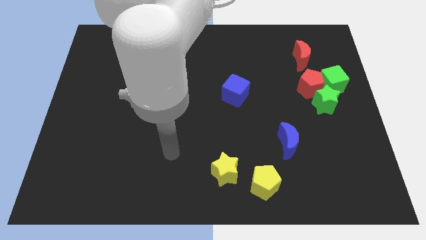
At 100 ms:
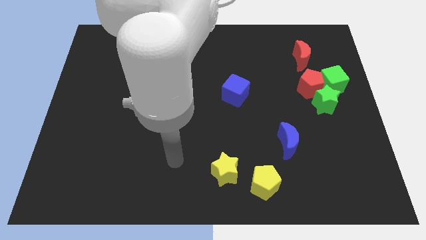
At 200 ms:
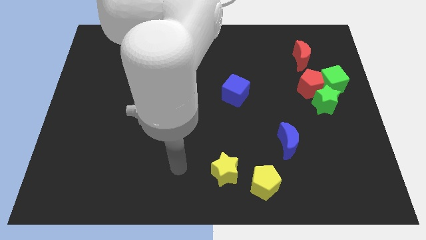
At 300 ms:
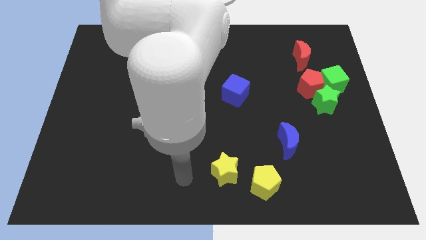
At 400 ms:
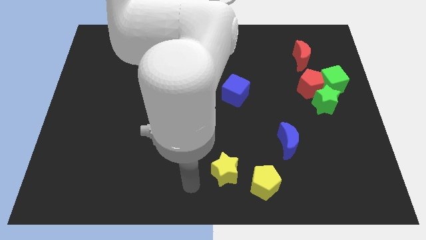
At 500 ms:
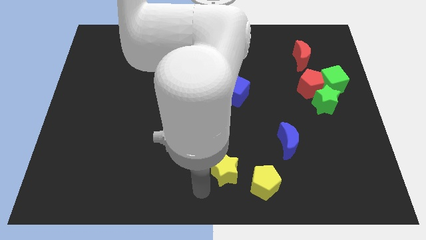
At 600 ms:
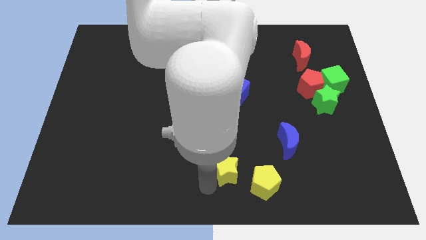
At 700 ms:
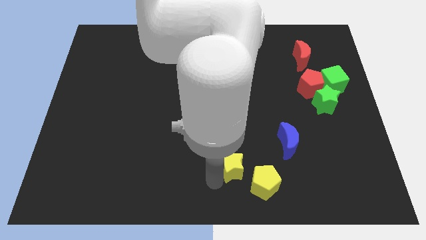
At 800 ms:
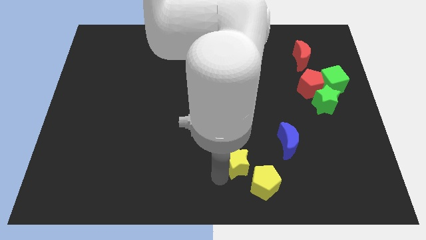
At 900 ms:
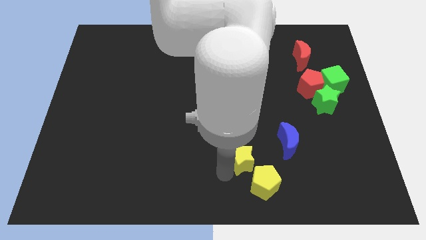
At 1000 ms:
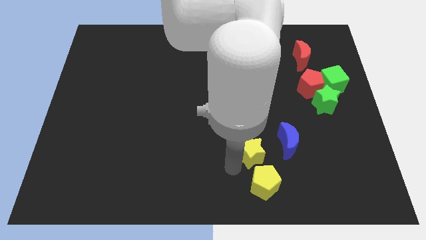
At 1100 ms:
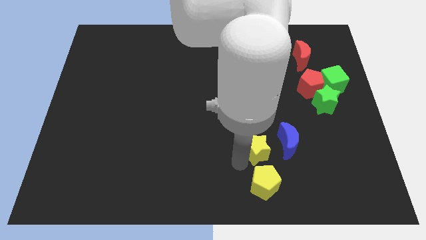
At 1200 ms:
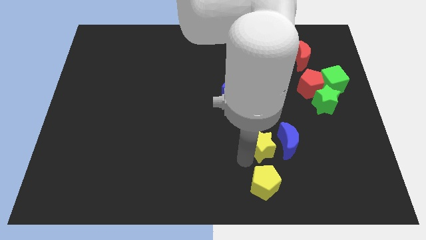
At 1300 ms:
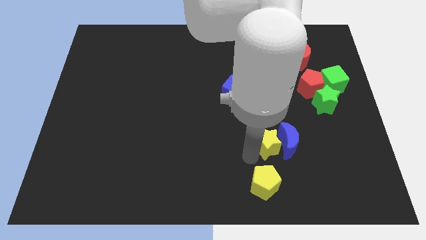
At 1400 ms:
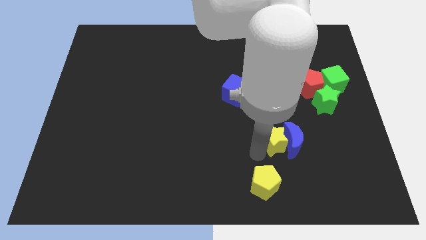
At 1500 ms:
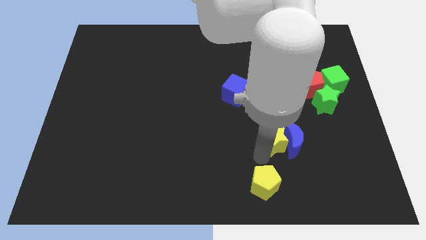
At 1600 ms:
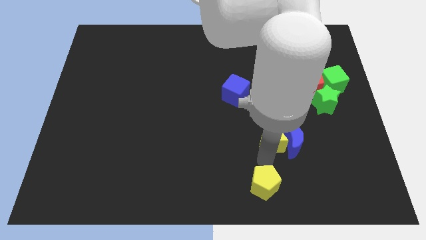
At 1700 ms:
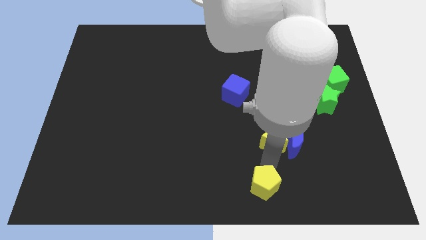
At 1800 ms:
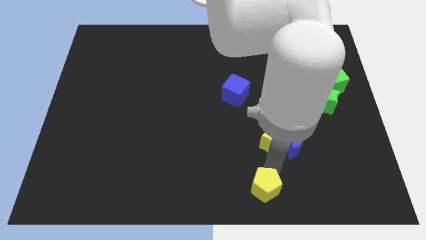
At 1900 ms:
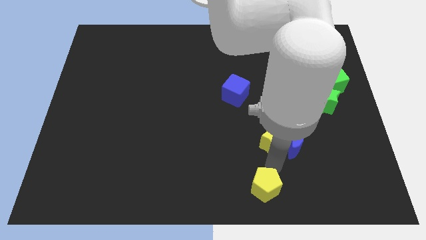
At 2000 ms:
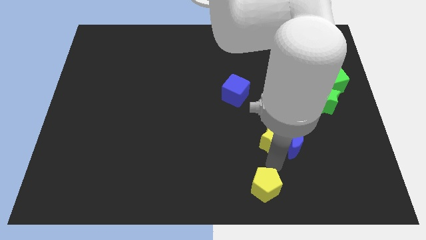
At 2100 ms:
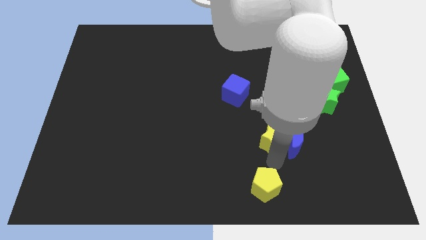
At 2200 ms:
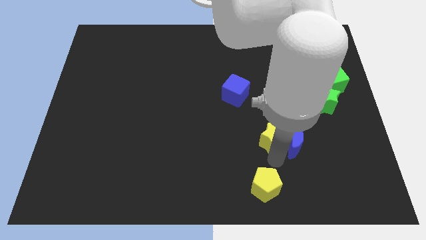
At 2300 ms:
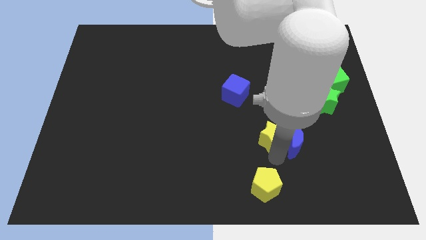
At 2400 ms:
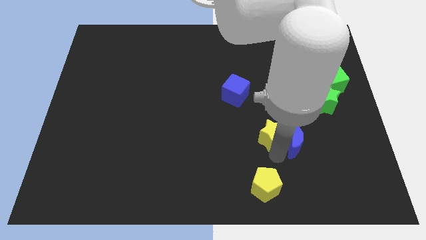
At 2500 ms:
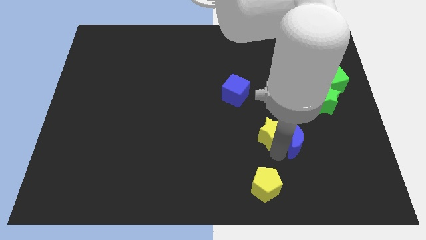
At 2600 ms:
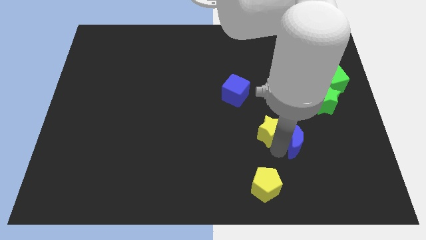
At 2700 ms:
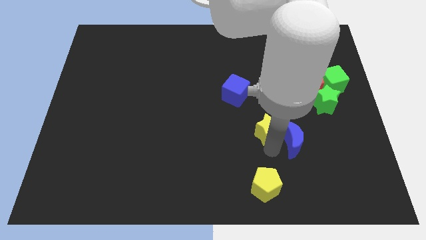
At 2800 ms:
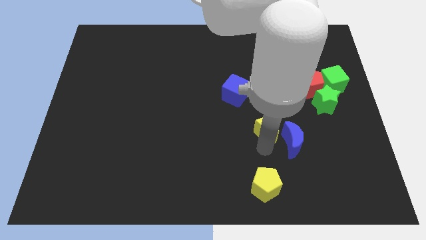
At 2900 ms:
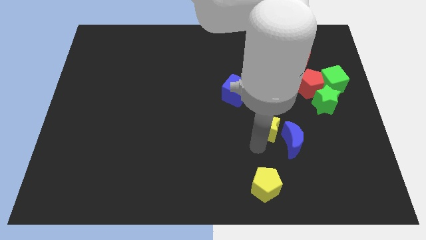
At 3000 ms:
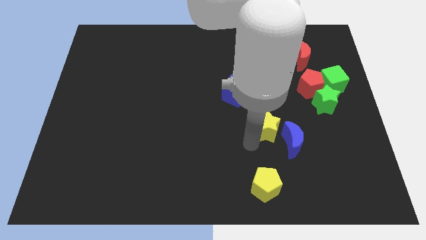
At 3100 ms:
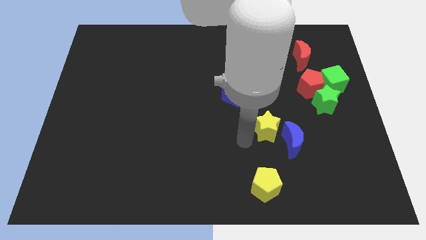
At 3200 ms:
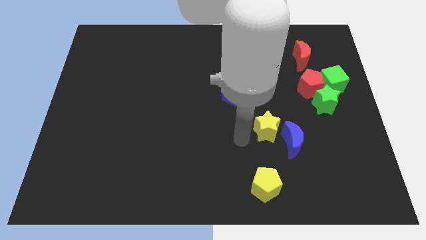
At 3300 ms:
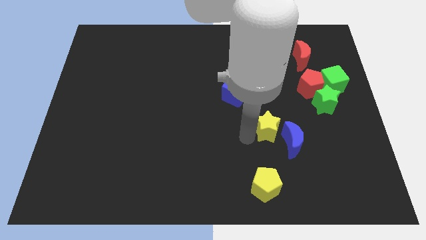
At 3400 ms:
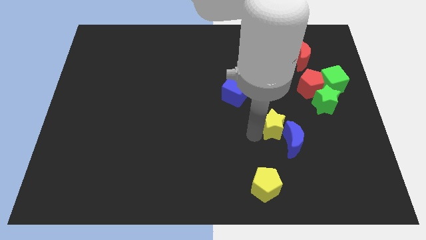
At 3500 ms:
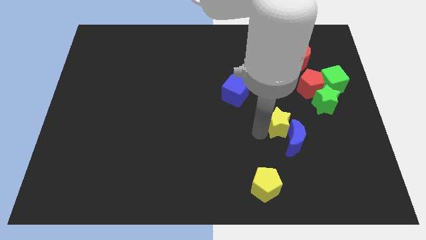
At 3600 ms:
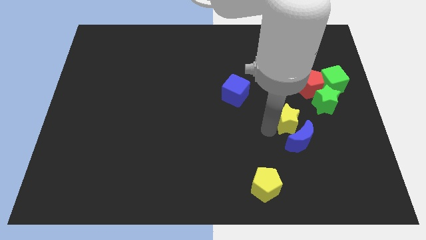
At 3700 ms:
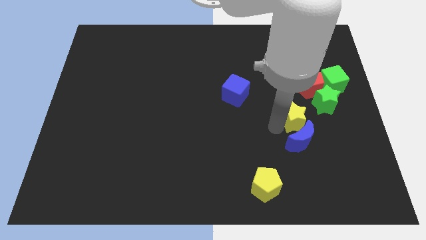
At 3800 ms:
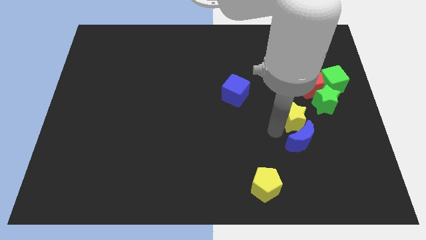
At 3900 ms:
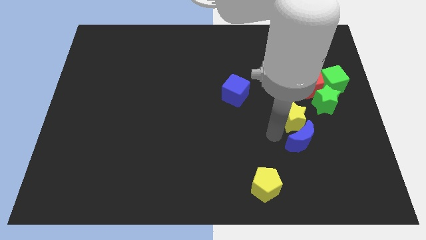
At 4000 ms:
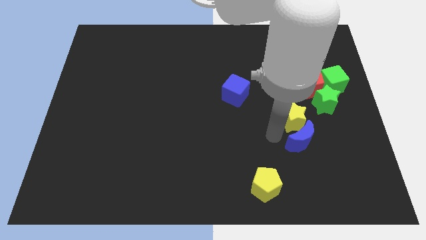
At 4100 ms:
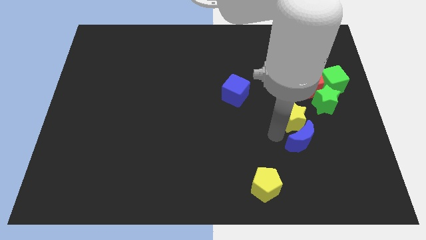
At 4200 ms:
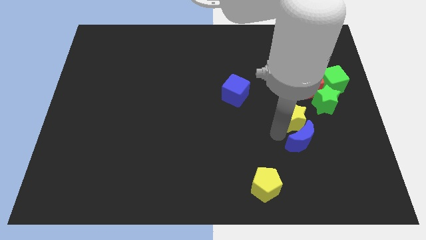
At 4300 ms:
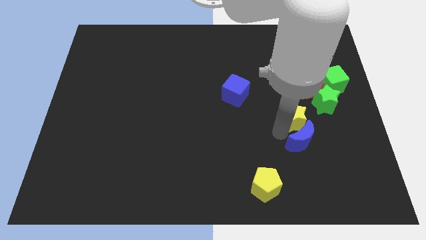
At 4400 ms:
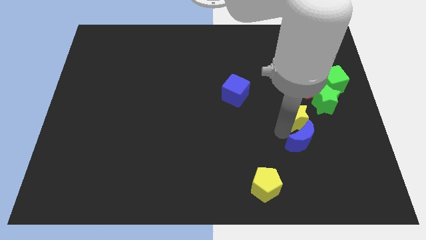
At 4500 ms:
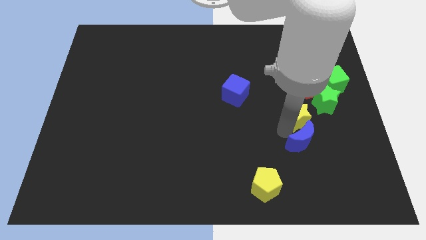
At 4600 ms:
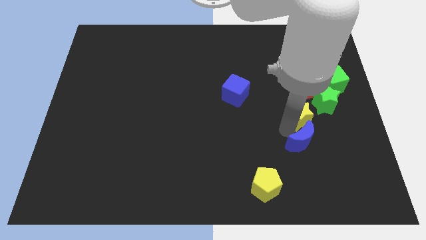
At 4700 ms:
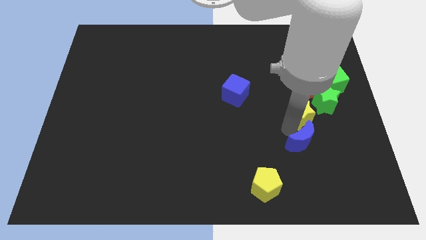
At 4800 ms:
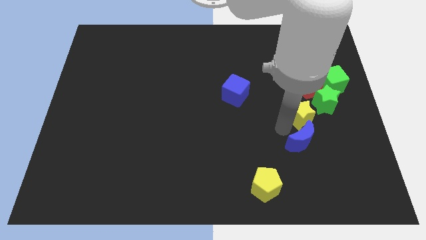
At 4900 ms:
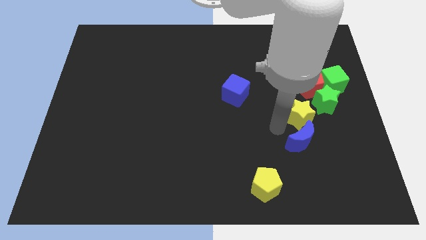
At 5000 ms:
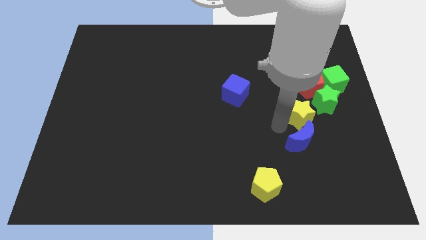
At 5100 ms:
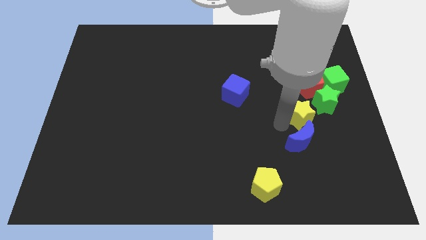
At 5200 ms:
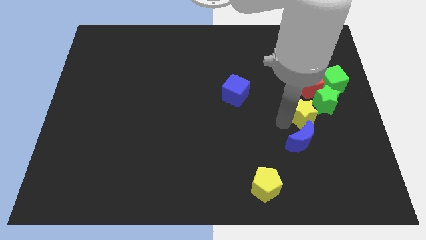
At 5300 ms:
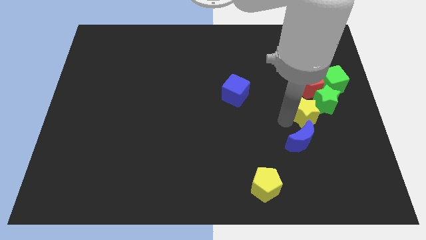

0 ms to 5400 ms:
move the yellow star close to the green star

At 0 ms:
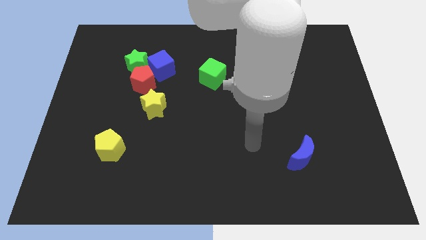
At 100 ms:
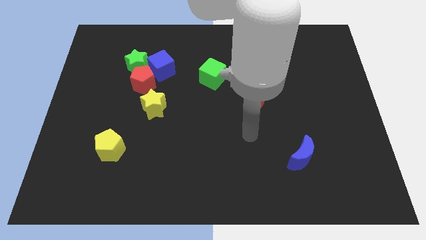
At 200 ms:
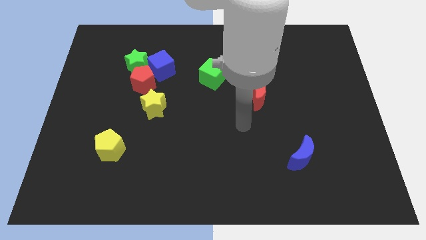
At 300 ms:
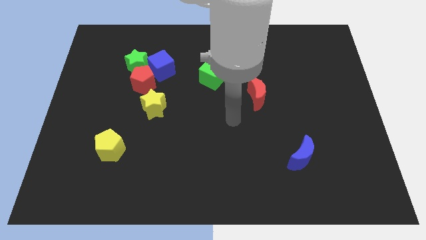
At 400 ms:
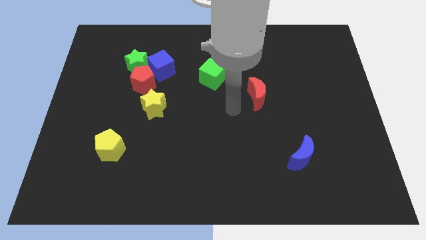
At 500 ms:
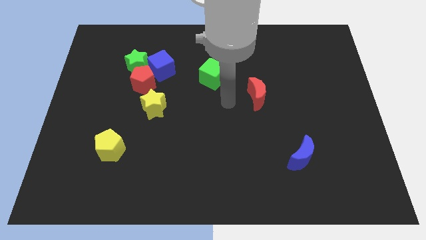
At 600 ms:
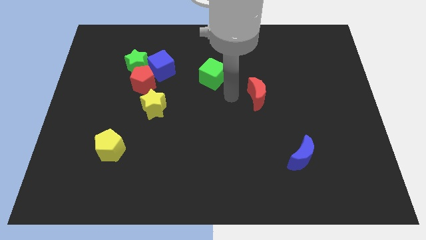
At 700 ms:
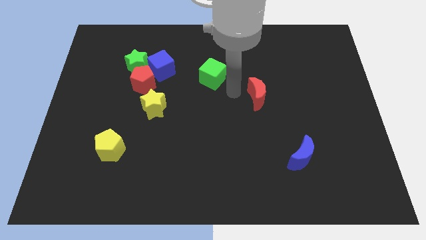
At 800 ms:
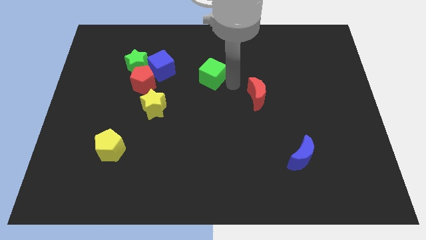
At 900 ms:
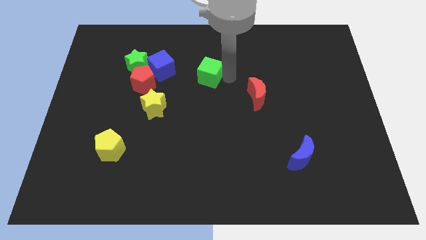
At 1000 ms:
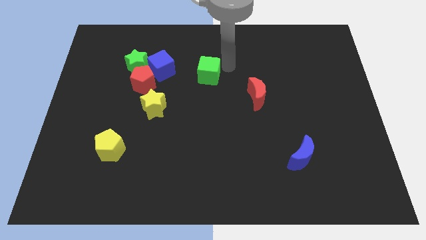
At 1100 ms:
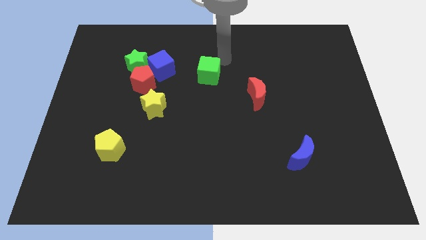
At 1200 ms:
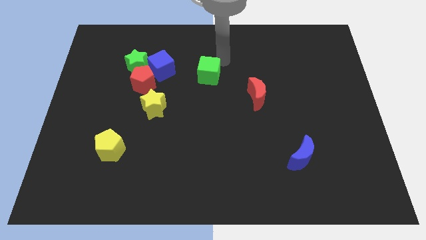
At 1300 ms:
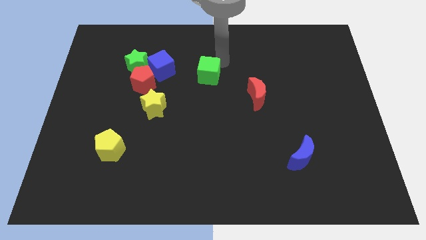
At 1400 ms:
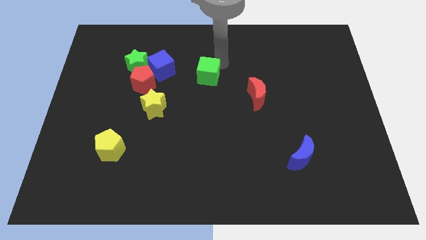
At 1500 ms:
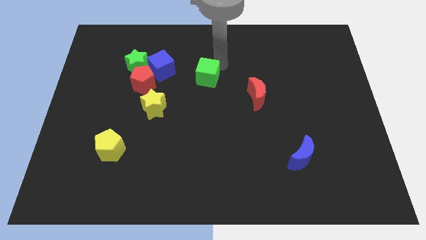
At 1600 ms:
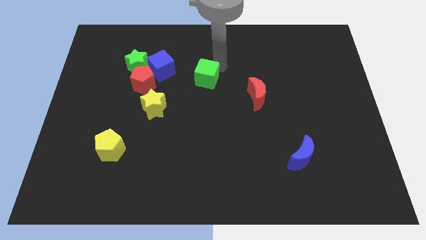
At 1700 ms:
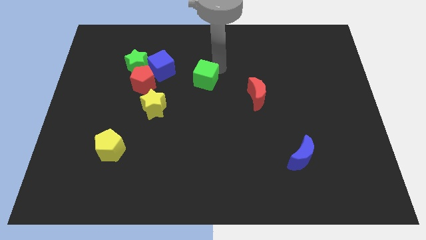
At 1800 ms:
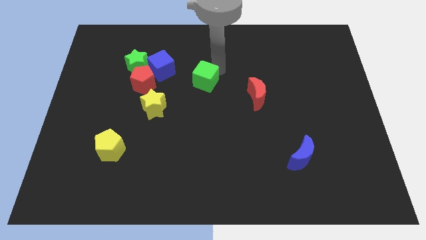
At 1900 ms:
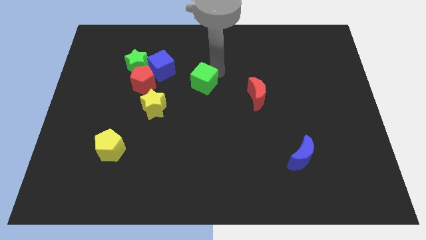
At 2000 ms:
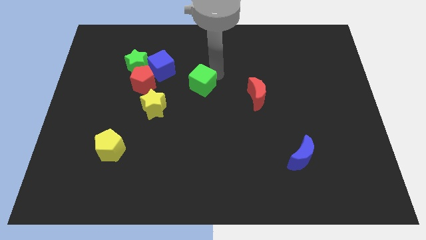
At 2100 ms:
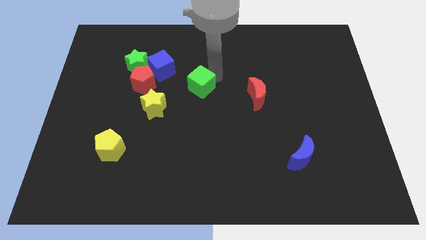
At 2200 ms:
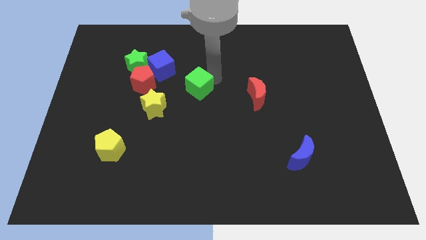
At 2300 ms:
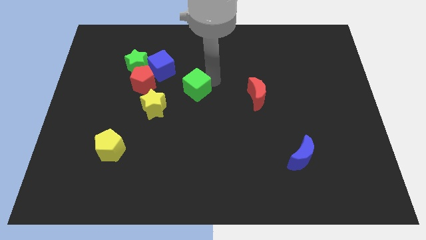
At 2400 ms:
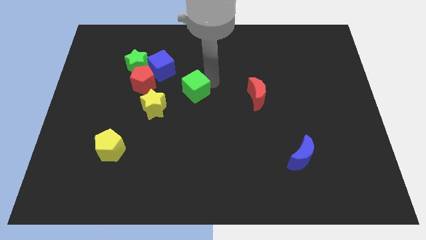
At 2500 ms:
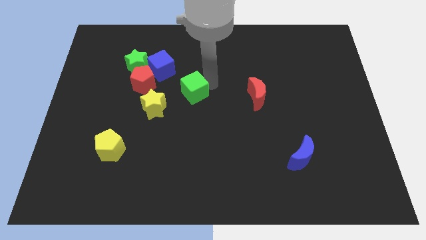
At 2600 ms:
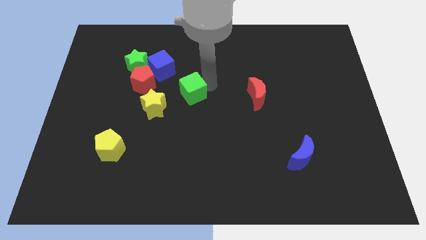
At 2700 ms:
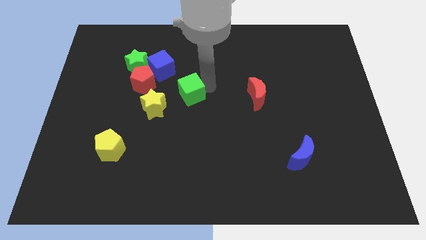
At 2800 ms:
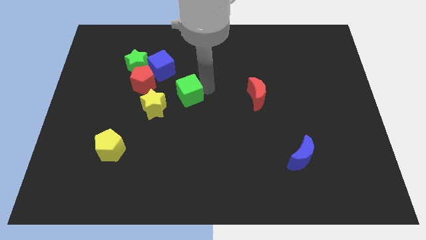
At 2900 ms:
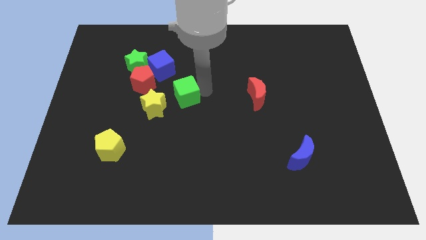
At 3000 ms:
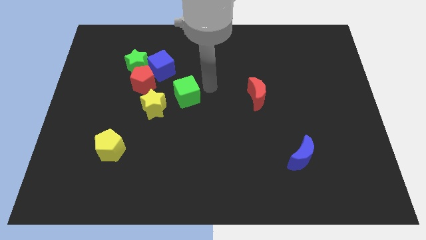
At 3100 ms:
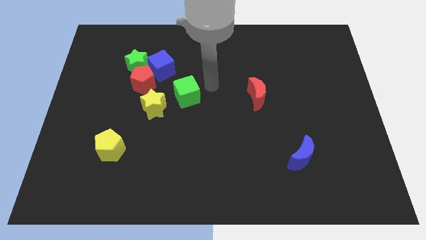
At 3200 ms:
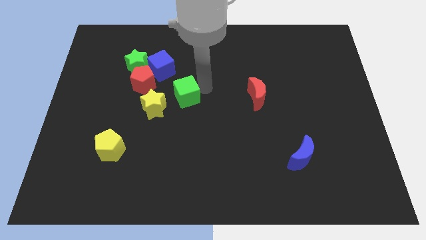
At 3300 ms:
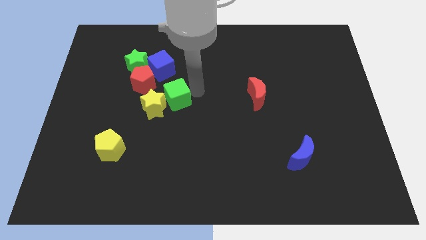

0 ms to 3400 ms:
push the green cube to the yellow star
